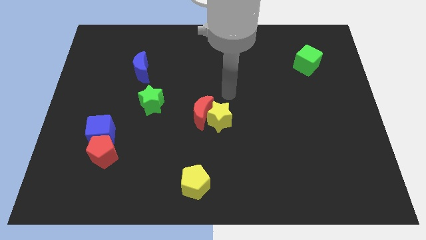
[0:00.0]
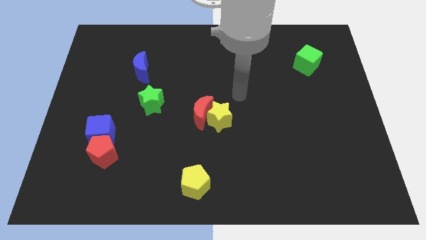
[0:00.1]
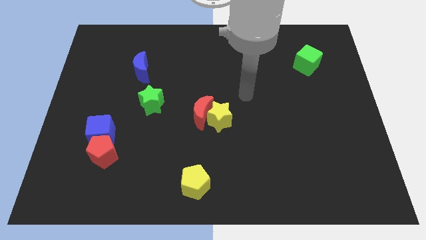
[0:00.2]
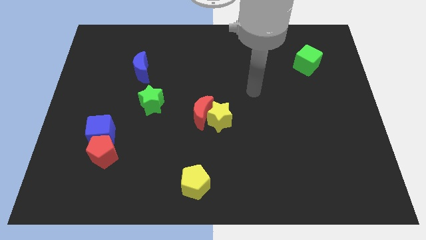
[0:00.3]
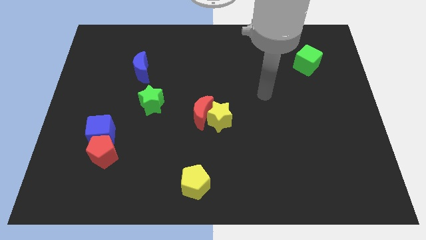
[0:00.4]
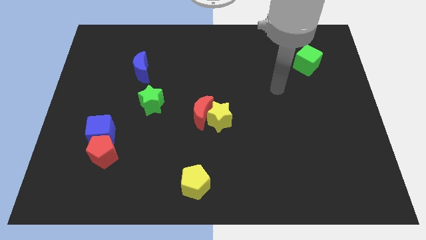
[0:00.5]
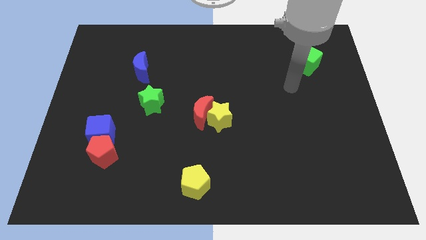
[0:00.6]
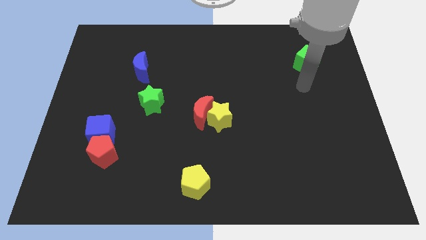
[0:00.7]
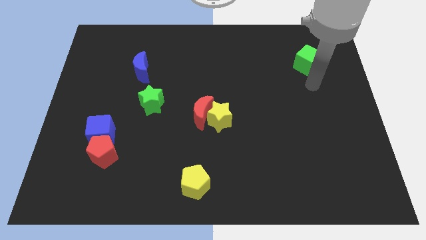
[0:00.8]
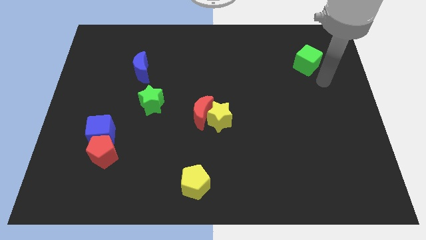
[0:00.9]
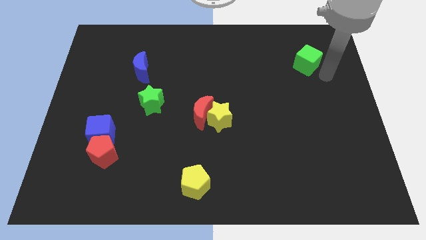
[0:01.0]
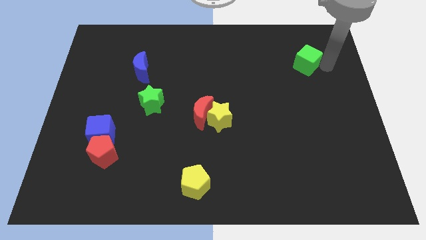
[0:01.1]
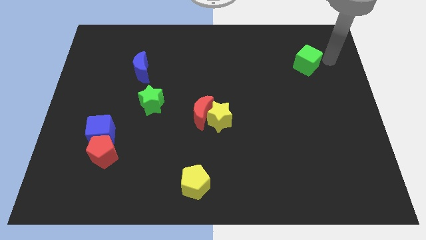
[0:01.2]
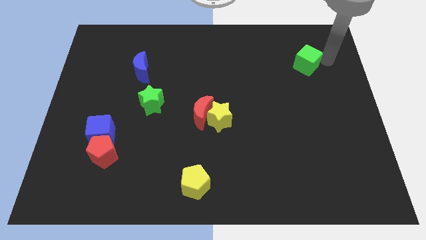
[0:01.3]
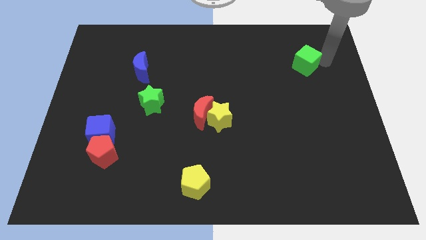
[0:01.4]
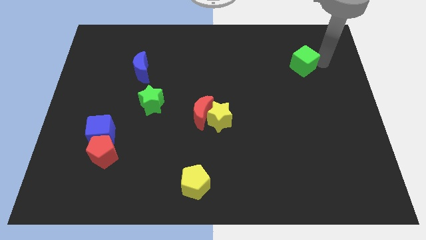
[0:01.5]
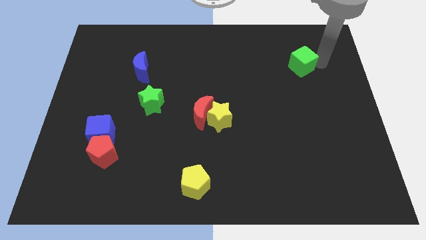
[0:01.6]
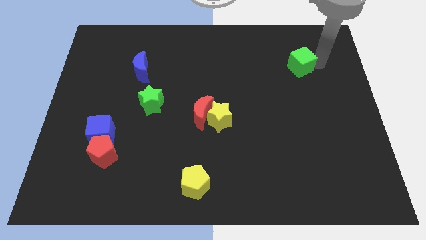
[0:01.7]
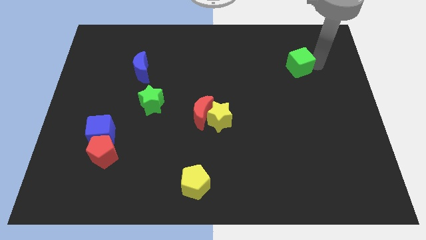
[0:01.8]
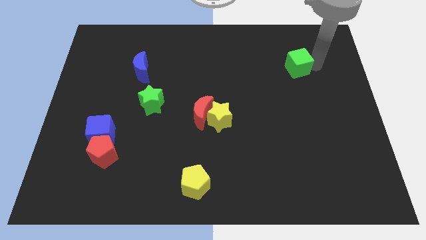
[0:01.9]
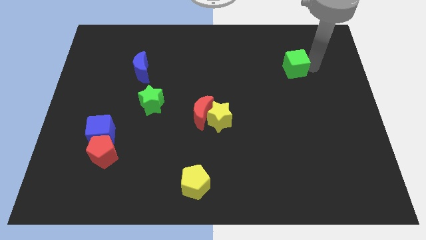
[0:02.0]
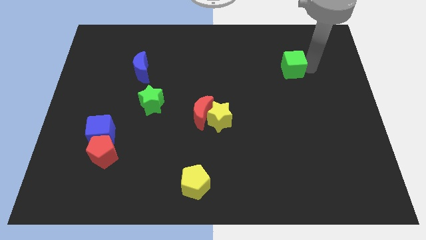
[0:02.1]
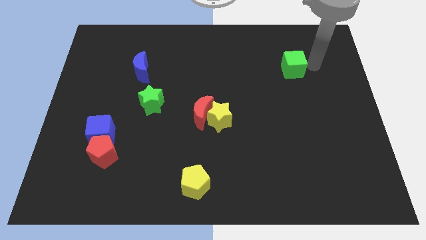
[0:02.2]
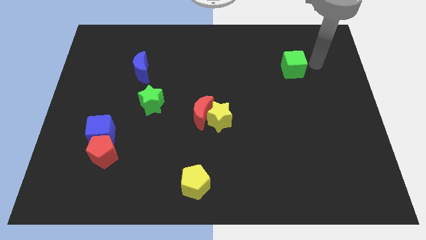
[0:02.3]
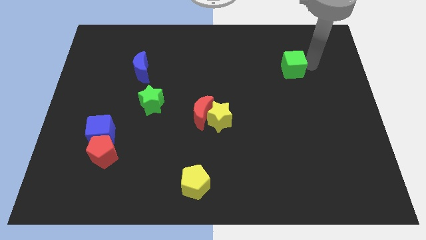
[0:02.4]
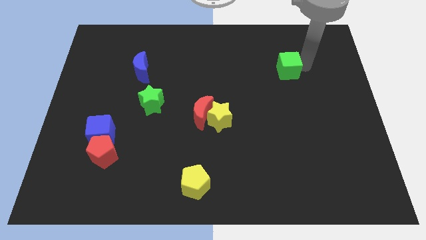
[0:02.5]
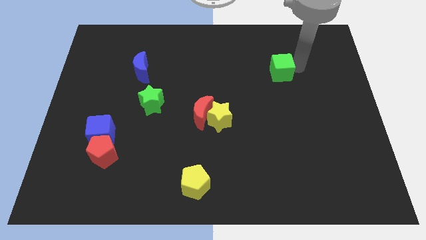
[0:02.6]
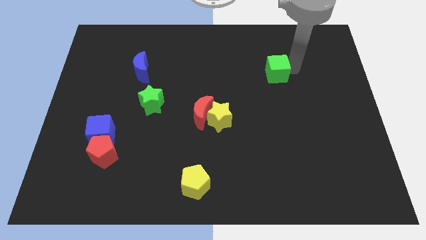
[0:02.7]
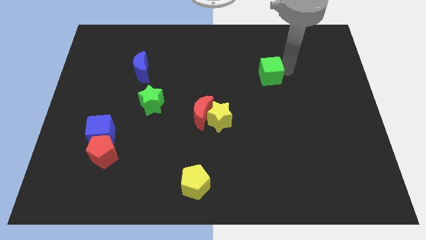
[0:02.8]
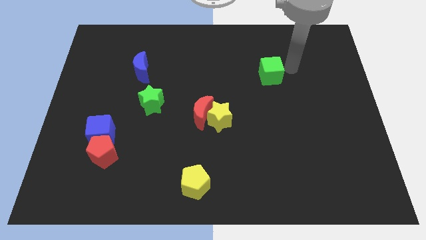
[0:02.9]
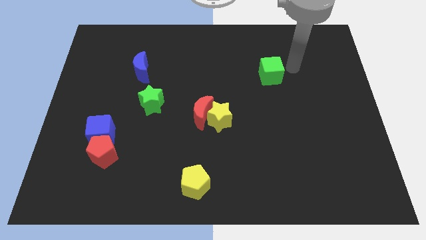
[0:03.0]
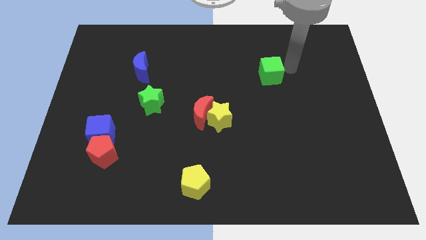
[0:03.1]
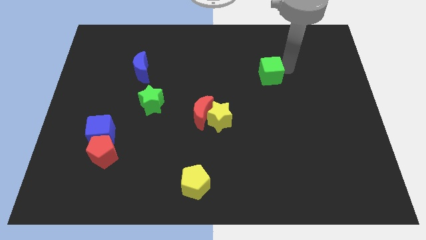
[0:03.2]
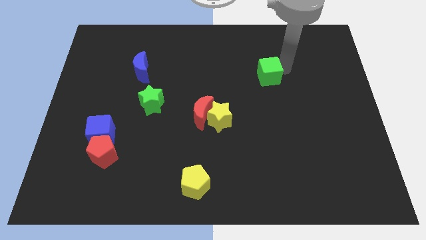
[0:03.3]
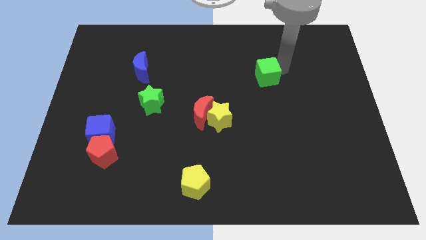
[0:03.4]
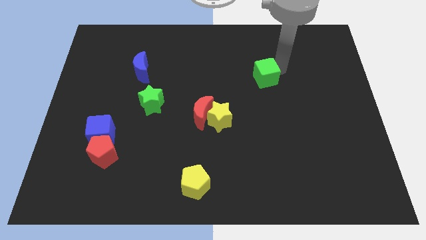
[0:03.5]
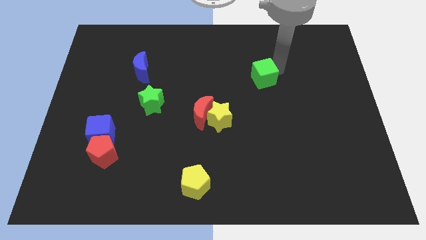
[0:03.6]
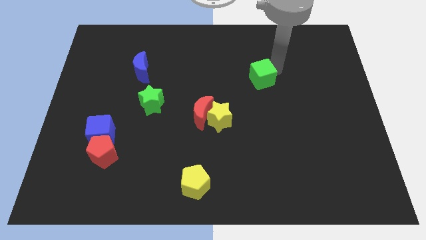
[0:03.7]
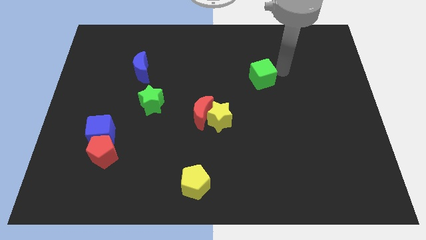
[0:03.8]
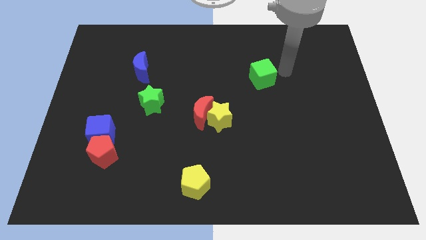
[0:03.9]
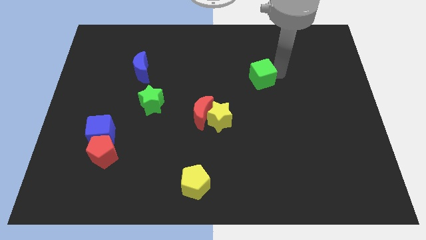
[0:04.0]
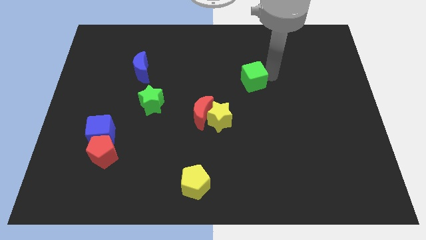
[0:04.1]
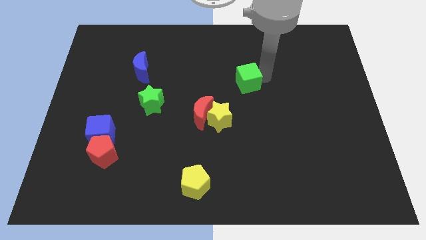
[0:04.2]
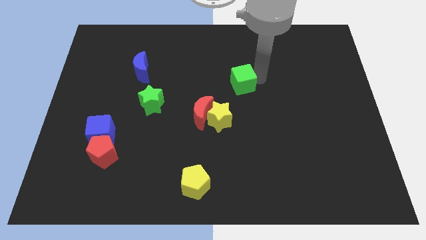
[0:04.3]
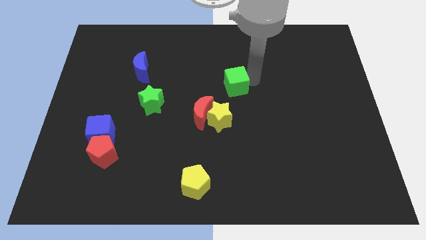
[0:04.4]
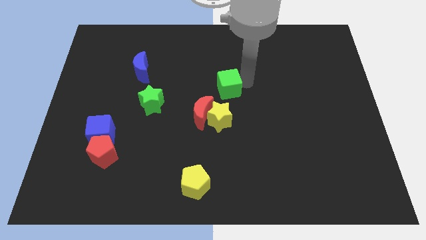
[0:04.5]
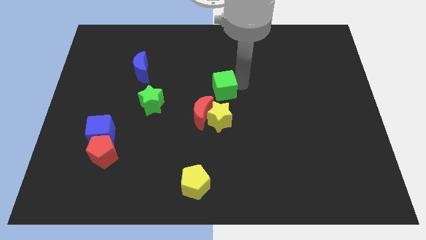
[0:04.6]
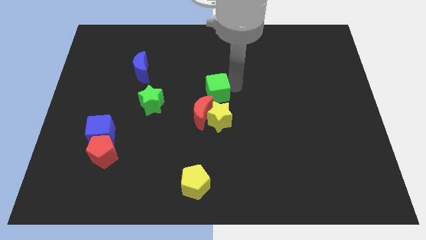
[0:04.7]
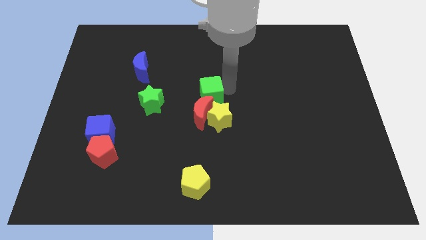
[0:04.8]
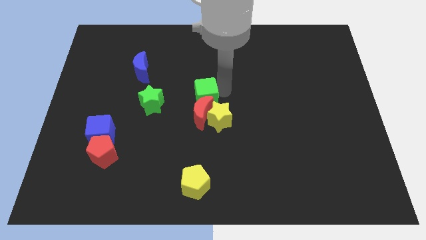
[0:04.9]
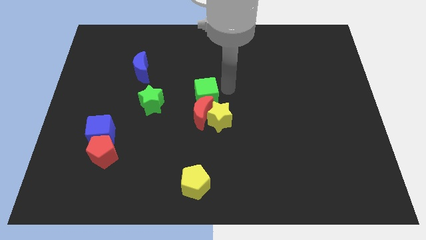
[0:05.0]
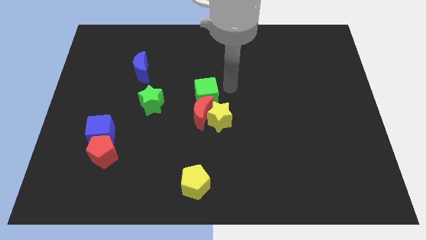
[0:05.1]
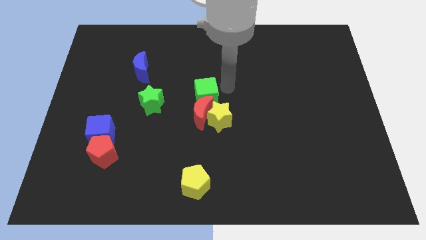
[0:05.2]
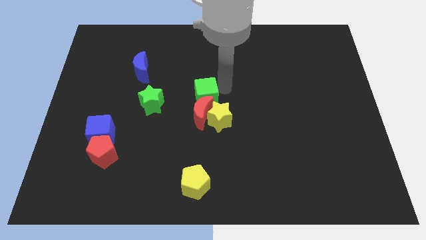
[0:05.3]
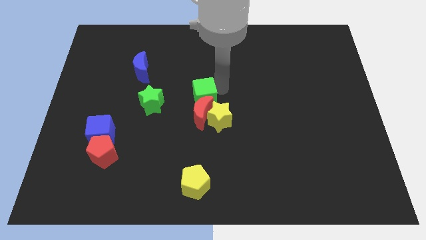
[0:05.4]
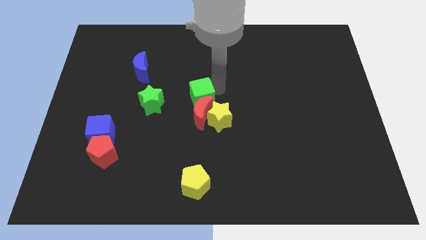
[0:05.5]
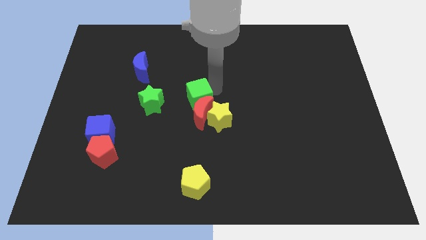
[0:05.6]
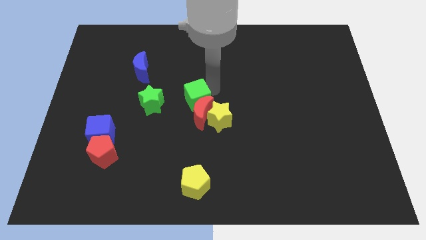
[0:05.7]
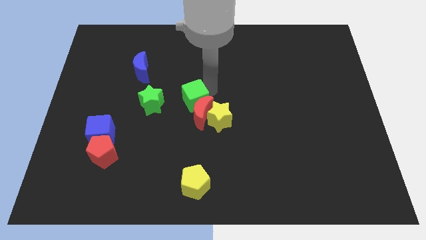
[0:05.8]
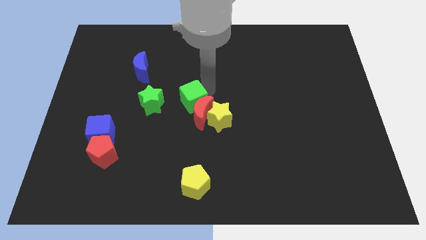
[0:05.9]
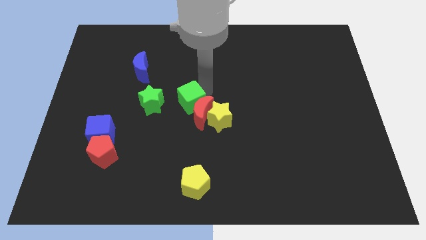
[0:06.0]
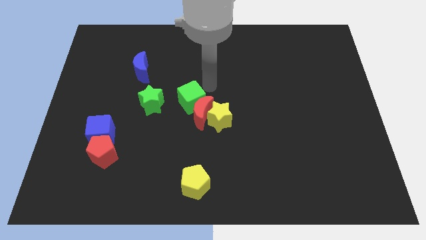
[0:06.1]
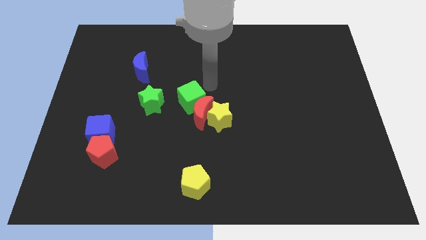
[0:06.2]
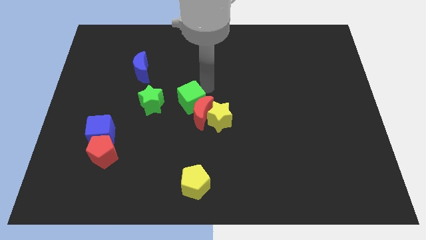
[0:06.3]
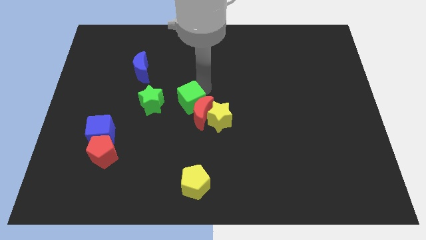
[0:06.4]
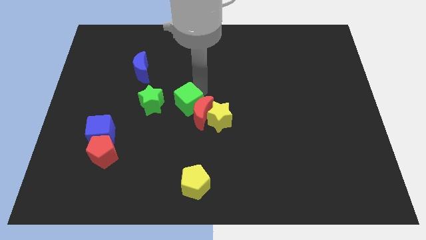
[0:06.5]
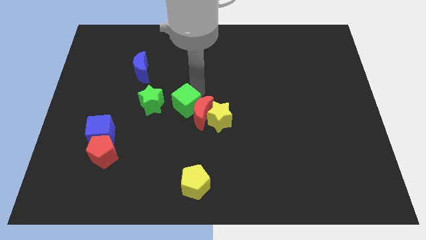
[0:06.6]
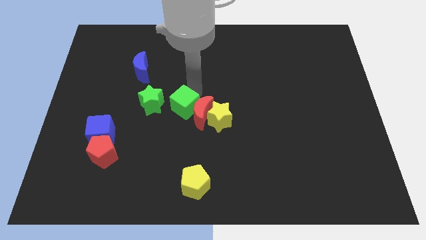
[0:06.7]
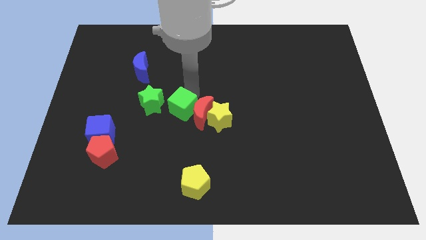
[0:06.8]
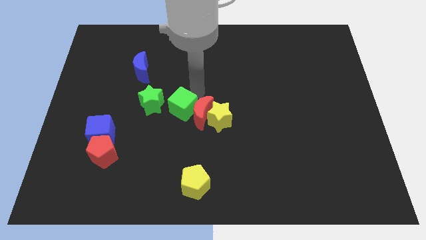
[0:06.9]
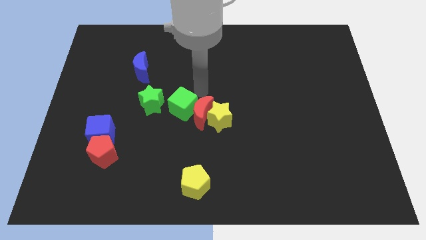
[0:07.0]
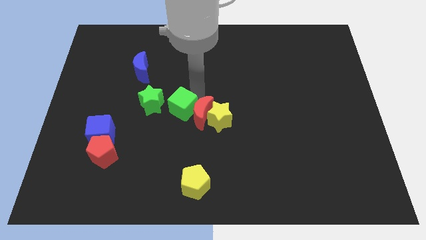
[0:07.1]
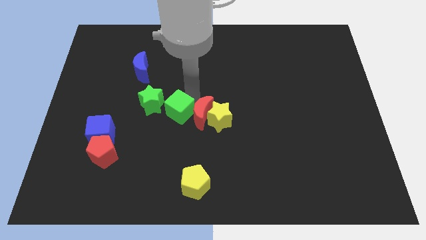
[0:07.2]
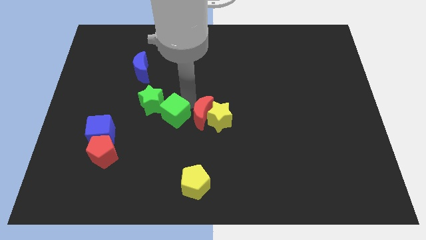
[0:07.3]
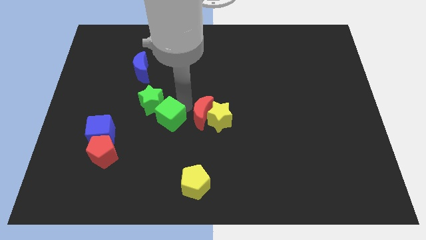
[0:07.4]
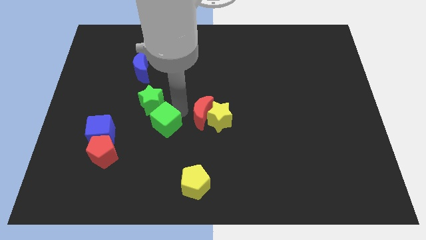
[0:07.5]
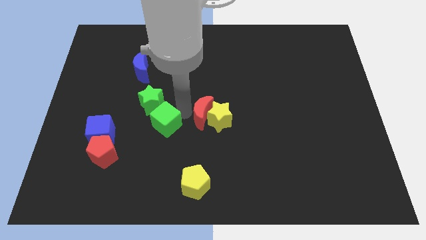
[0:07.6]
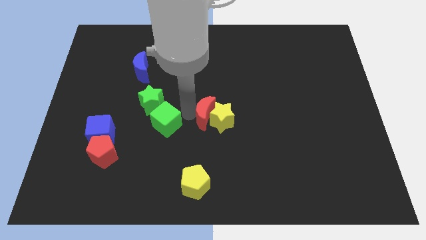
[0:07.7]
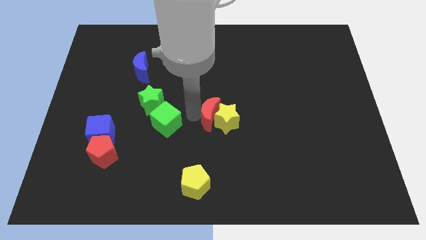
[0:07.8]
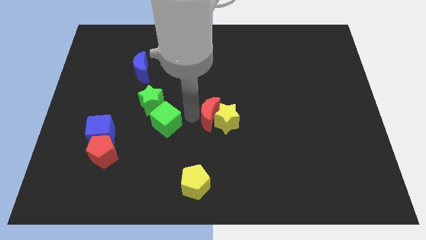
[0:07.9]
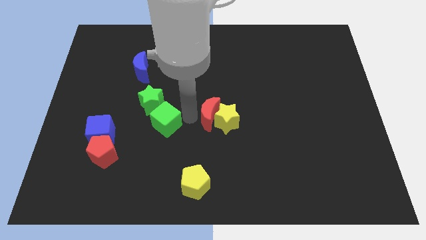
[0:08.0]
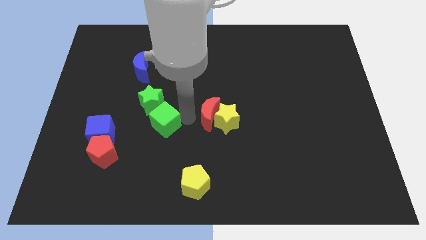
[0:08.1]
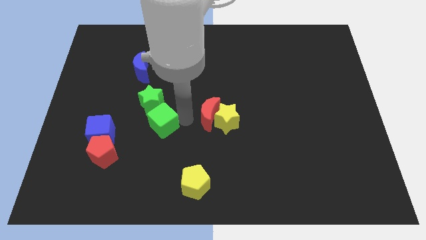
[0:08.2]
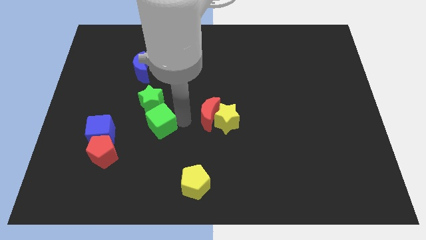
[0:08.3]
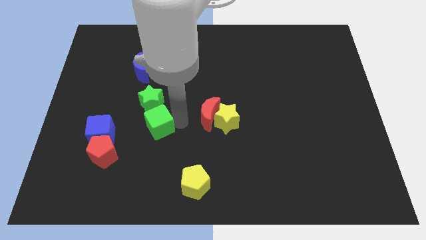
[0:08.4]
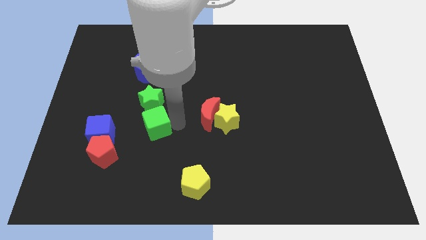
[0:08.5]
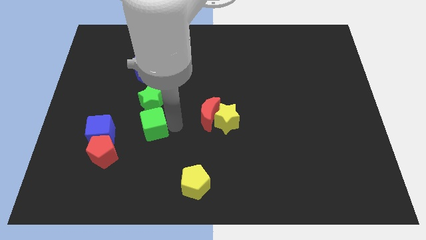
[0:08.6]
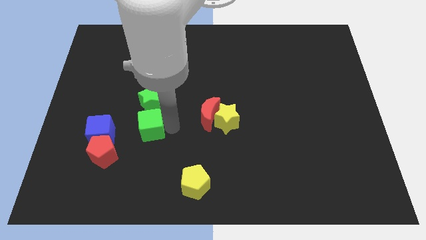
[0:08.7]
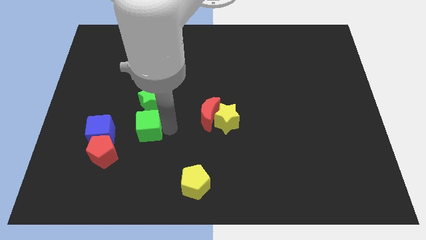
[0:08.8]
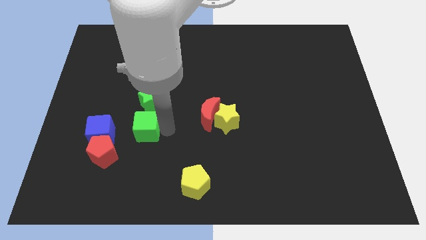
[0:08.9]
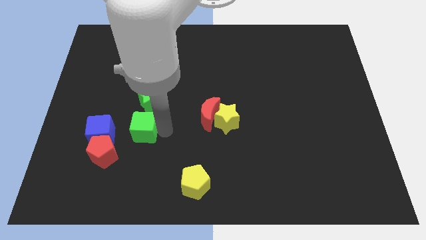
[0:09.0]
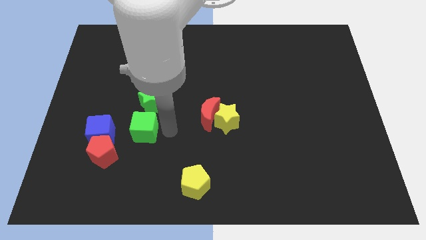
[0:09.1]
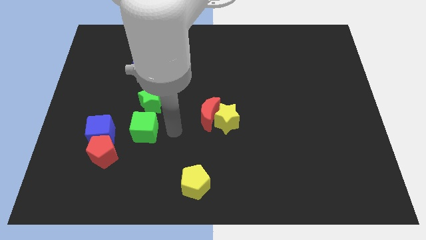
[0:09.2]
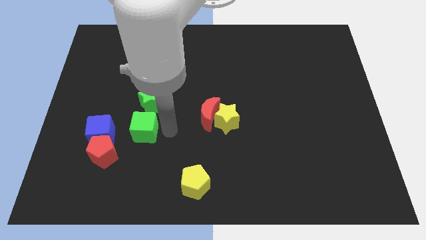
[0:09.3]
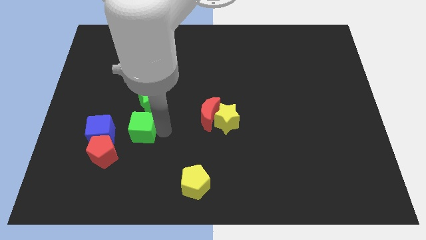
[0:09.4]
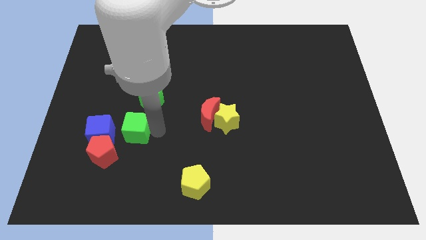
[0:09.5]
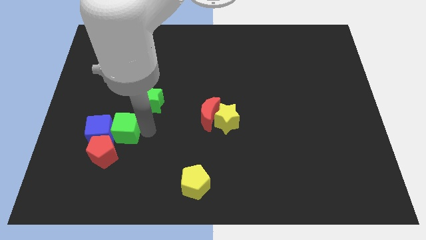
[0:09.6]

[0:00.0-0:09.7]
slide the green cube close to the blue cube
